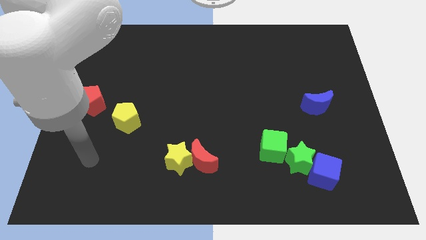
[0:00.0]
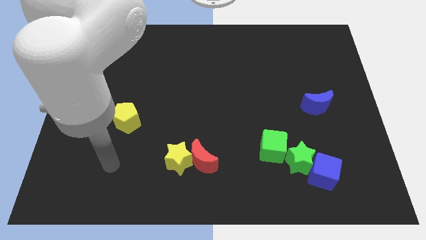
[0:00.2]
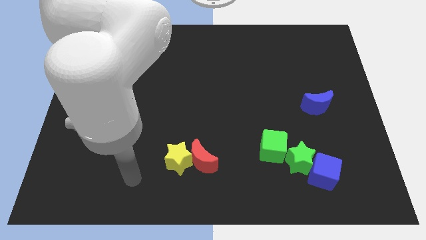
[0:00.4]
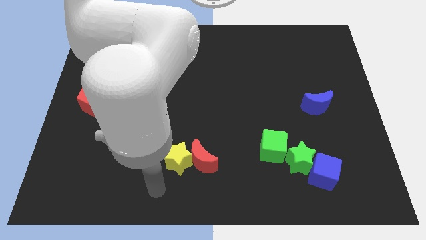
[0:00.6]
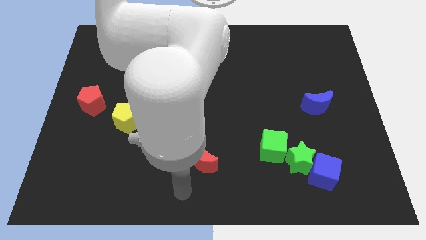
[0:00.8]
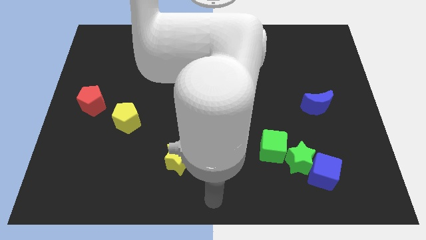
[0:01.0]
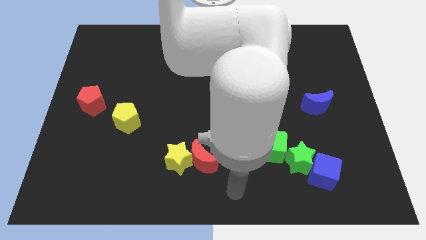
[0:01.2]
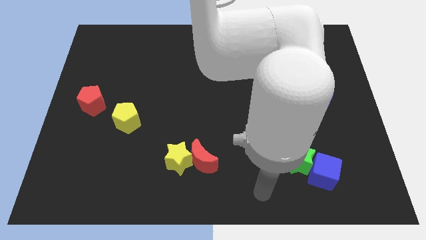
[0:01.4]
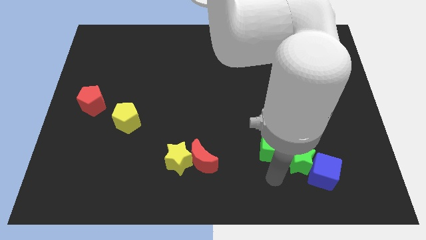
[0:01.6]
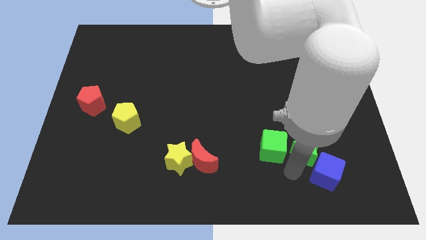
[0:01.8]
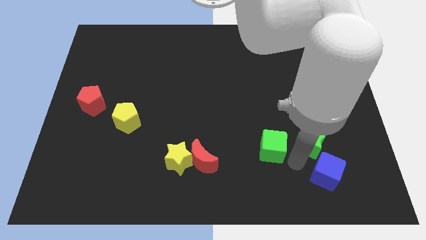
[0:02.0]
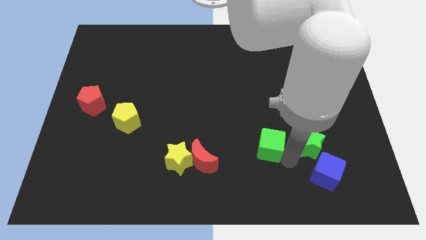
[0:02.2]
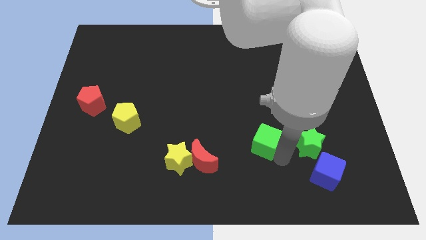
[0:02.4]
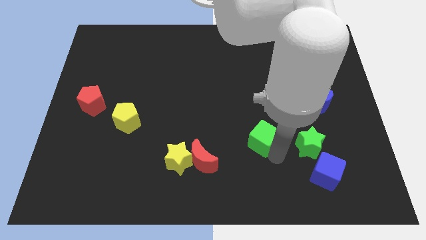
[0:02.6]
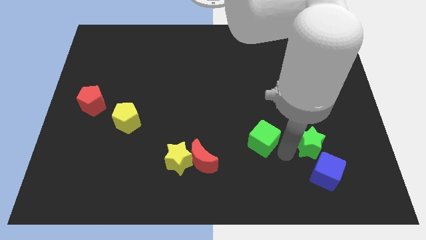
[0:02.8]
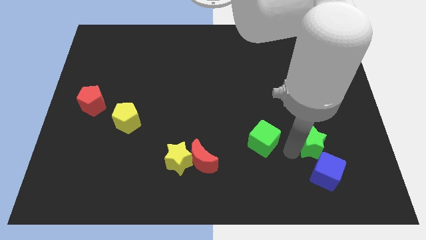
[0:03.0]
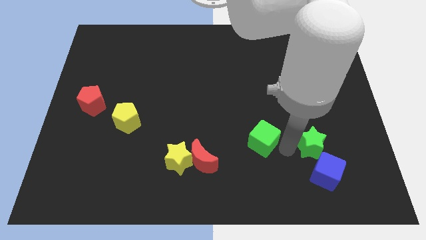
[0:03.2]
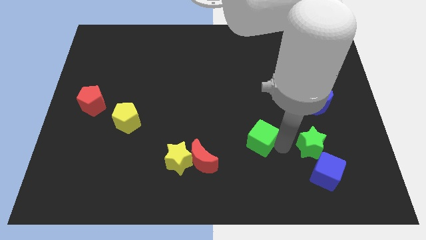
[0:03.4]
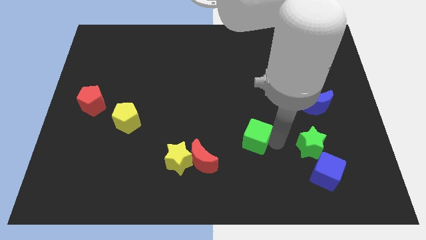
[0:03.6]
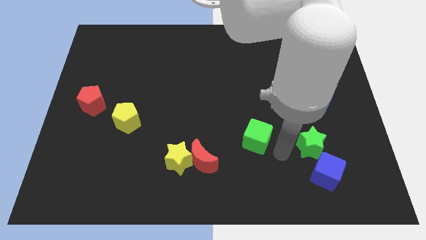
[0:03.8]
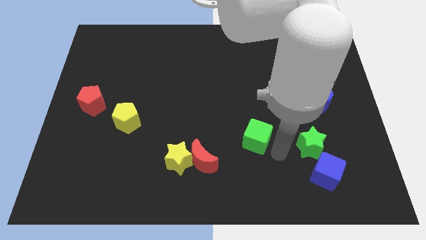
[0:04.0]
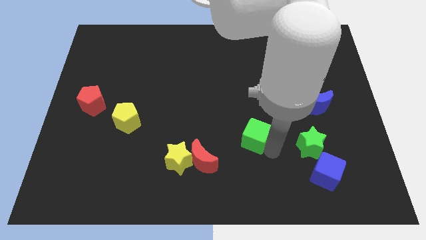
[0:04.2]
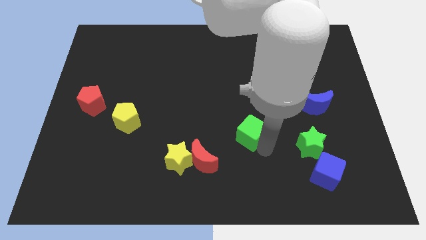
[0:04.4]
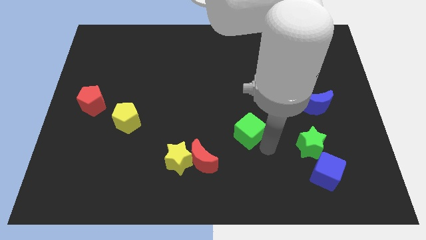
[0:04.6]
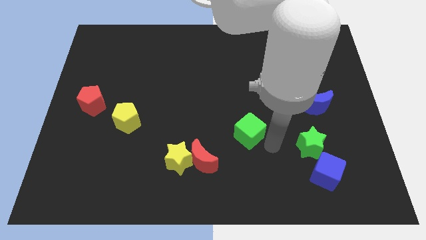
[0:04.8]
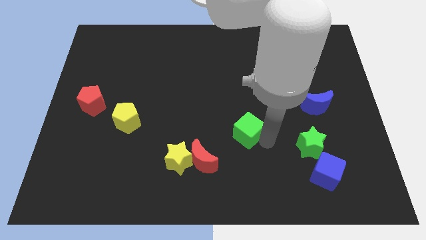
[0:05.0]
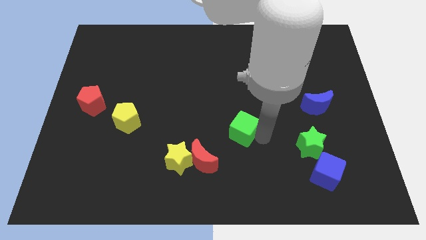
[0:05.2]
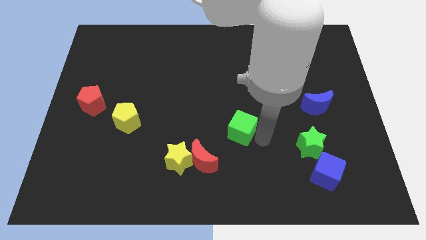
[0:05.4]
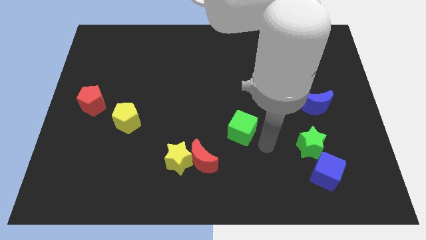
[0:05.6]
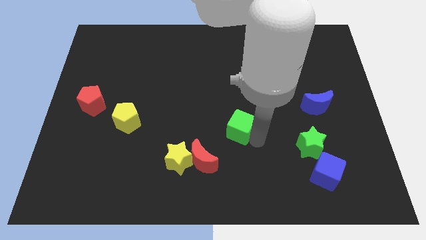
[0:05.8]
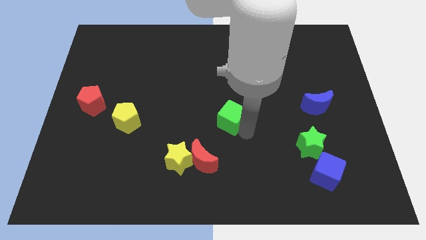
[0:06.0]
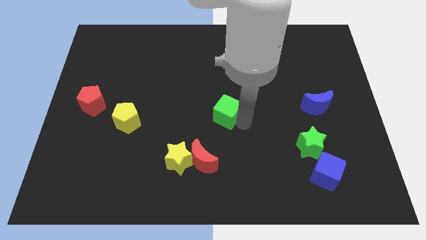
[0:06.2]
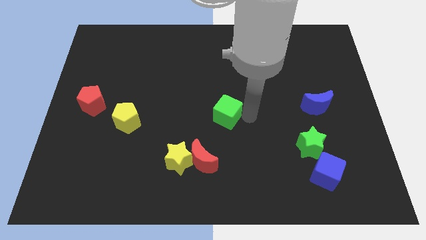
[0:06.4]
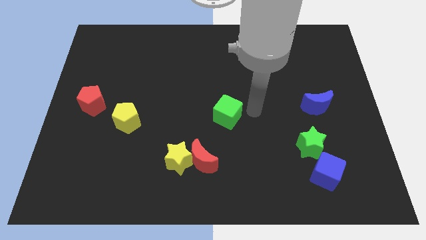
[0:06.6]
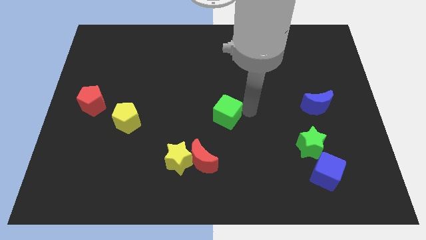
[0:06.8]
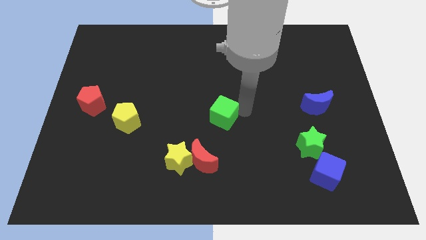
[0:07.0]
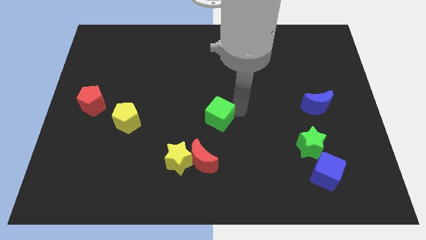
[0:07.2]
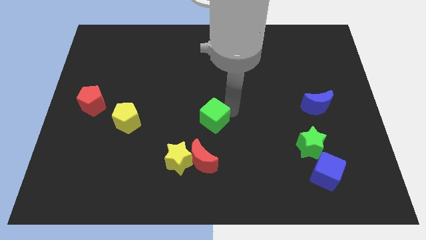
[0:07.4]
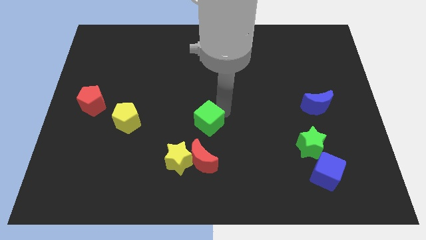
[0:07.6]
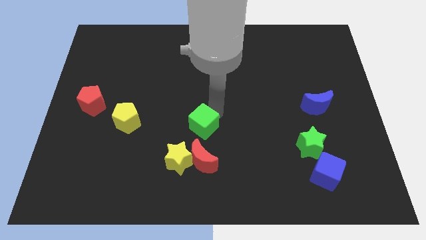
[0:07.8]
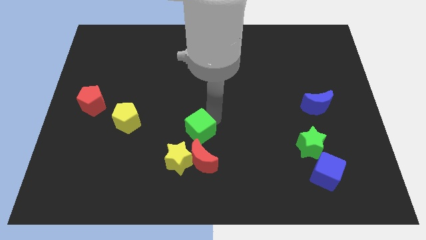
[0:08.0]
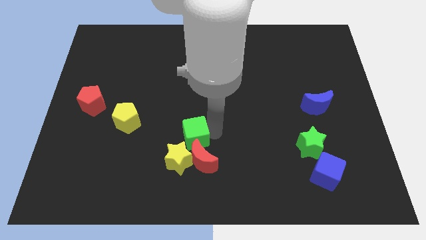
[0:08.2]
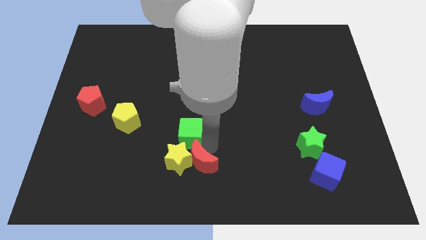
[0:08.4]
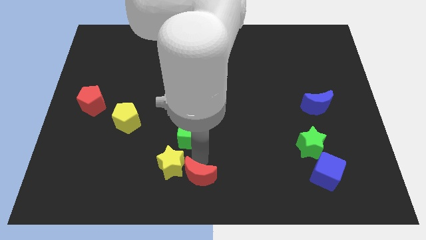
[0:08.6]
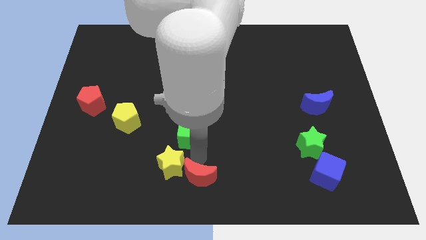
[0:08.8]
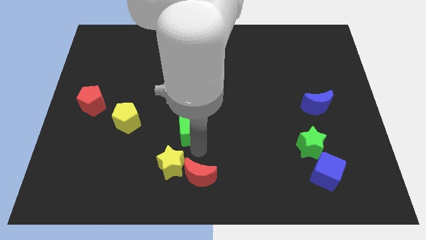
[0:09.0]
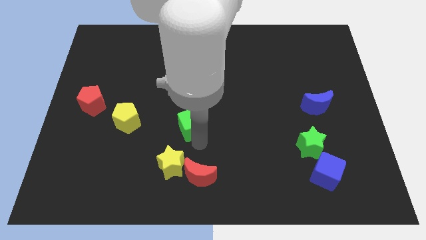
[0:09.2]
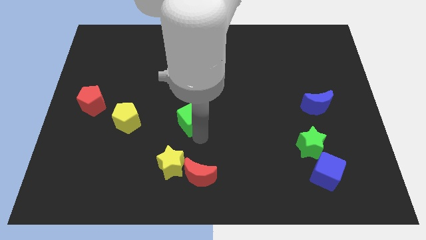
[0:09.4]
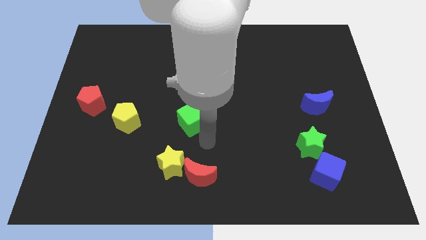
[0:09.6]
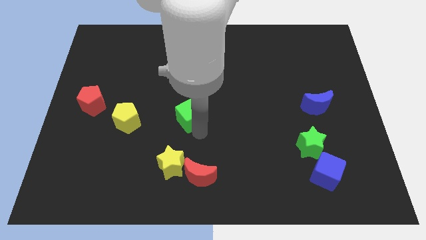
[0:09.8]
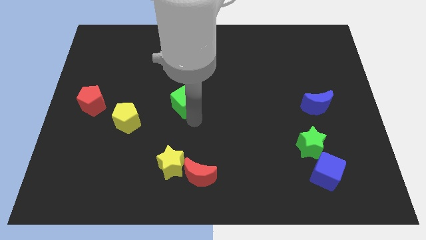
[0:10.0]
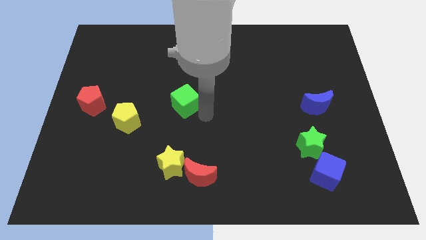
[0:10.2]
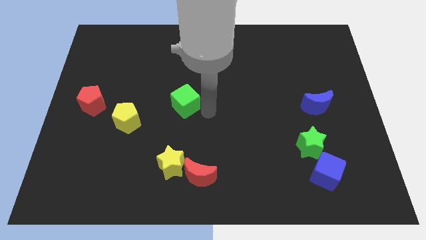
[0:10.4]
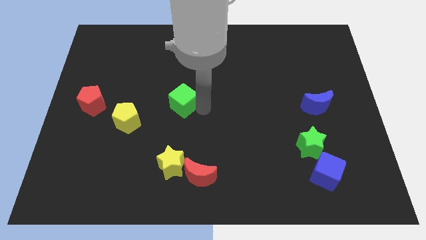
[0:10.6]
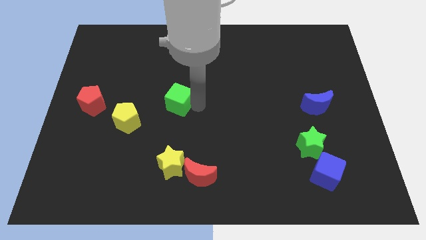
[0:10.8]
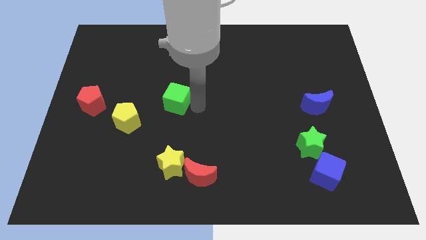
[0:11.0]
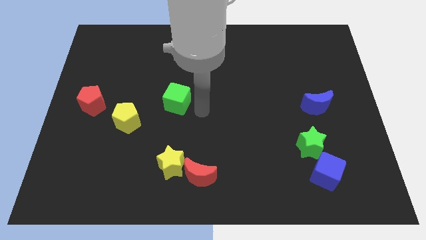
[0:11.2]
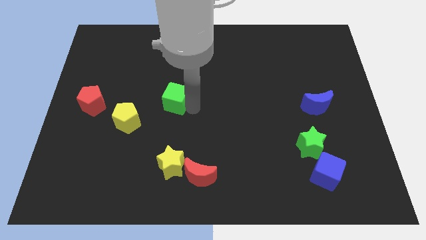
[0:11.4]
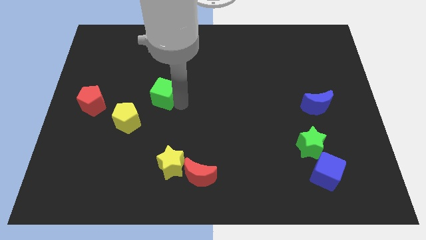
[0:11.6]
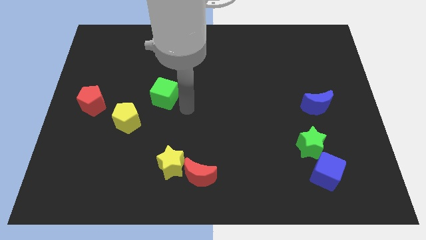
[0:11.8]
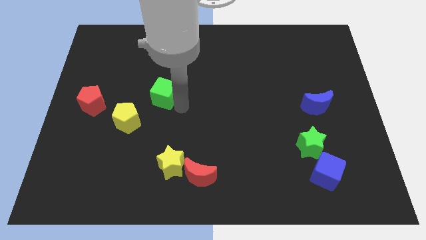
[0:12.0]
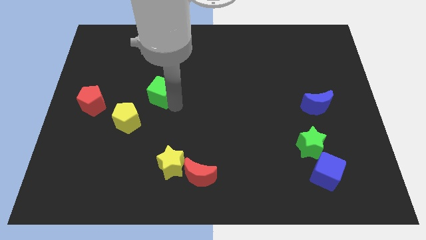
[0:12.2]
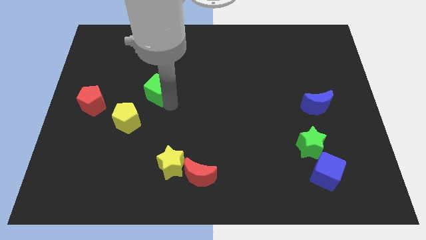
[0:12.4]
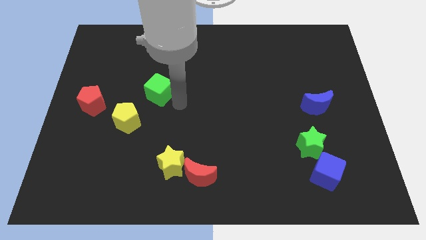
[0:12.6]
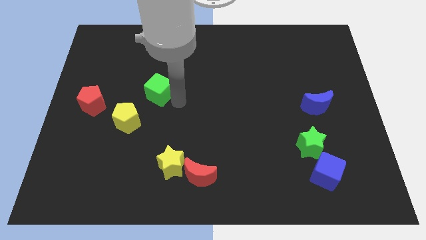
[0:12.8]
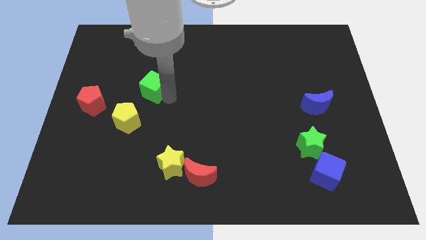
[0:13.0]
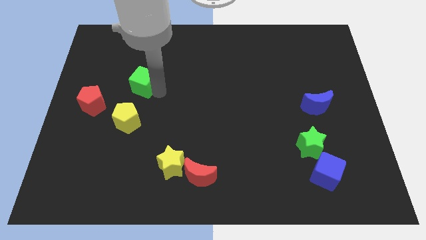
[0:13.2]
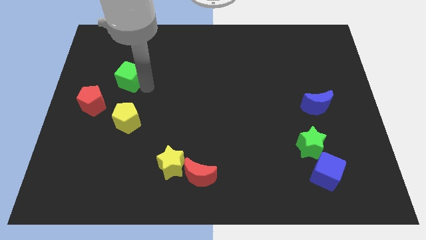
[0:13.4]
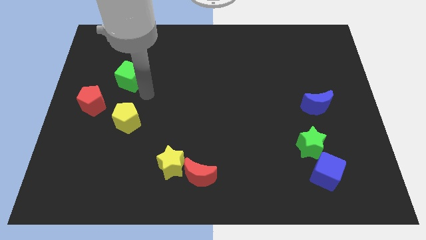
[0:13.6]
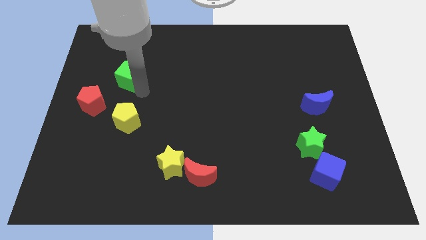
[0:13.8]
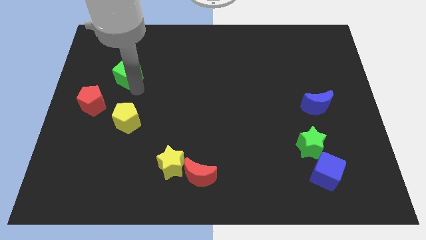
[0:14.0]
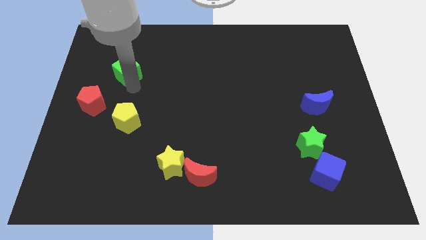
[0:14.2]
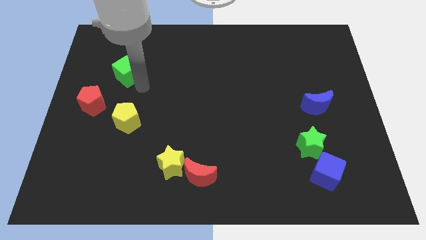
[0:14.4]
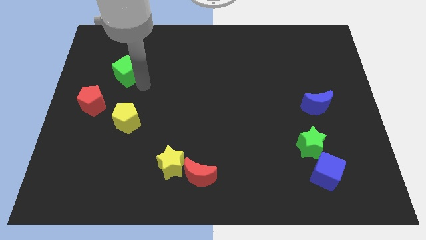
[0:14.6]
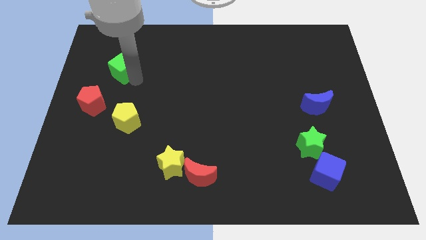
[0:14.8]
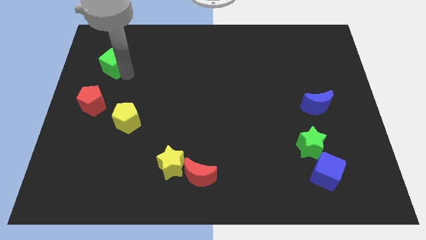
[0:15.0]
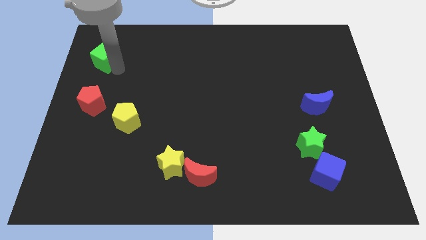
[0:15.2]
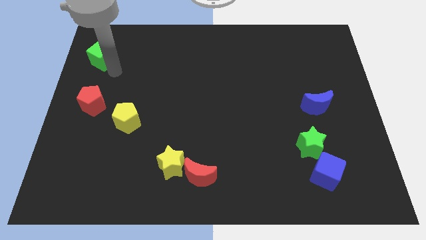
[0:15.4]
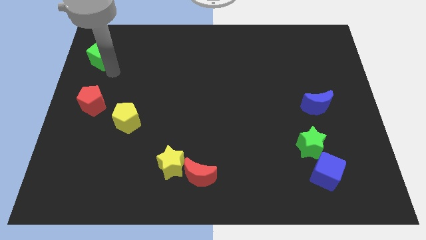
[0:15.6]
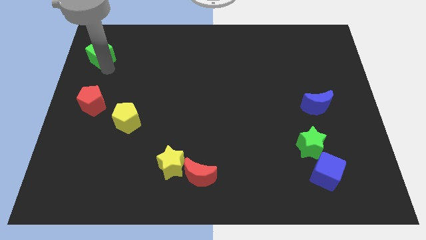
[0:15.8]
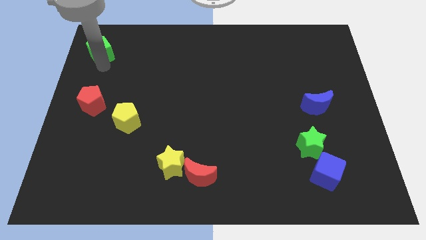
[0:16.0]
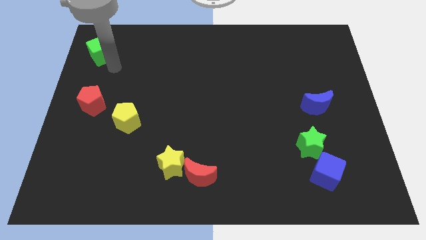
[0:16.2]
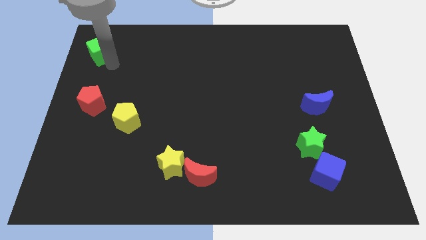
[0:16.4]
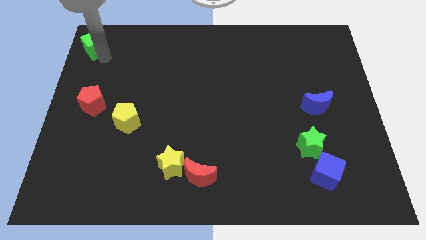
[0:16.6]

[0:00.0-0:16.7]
move the green cube to the upper left corner
